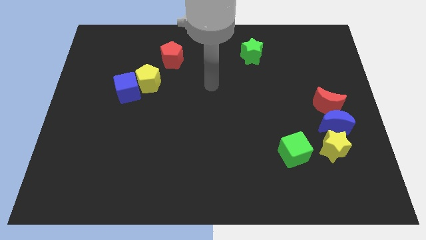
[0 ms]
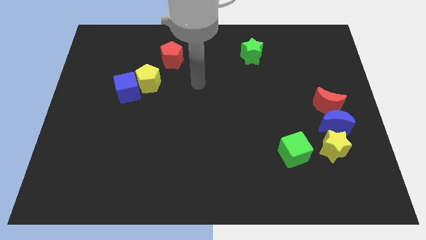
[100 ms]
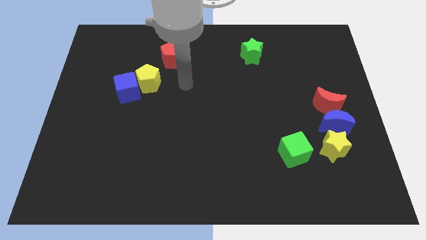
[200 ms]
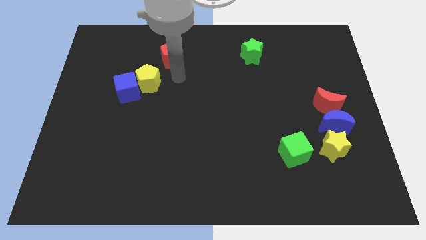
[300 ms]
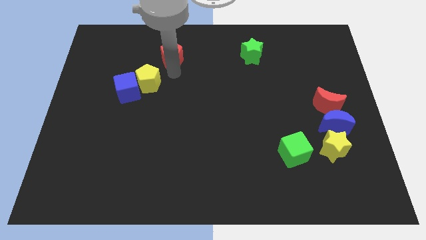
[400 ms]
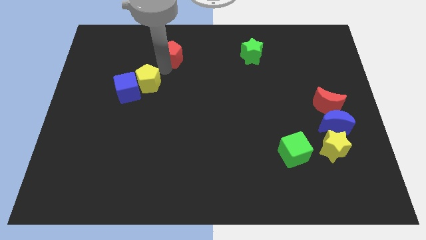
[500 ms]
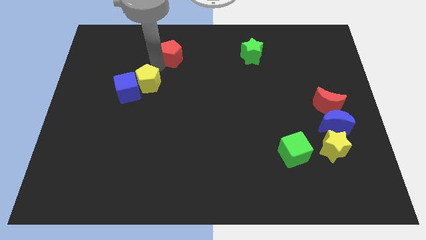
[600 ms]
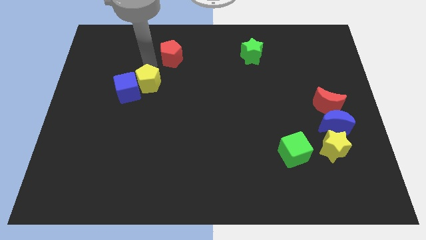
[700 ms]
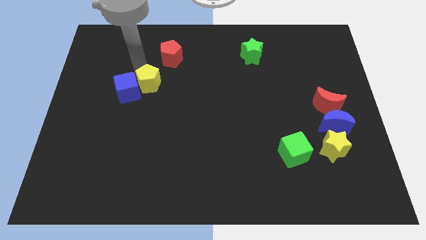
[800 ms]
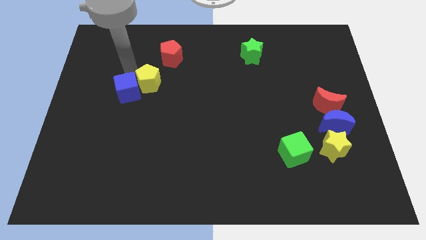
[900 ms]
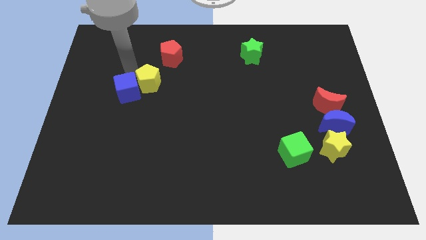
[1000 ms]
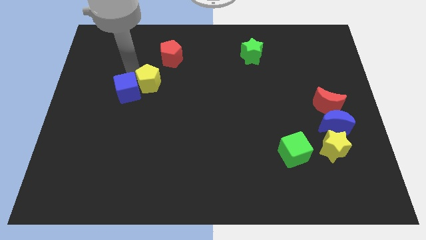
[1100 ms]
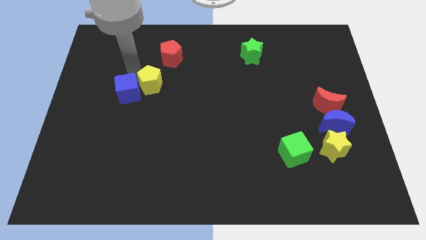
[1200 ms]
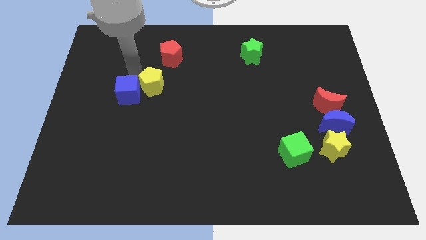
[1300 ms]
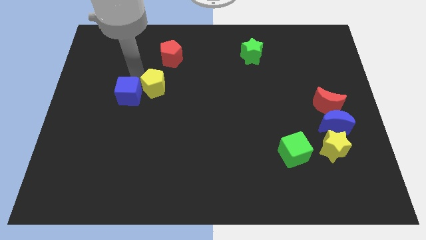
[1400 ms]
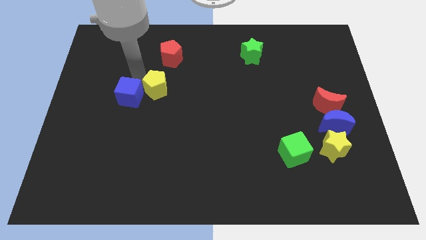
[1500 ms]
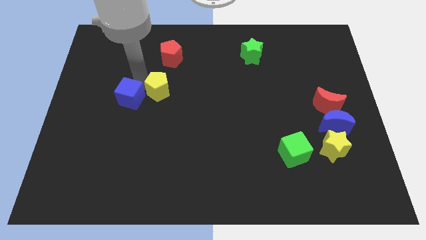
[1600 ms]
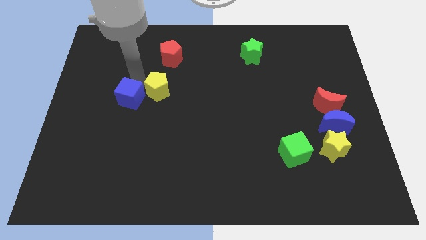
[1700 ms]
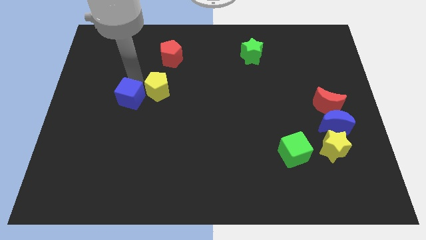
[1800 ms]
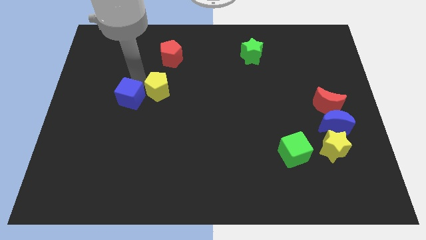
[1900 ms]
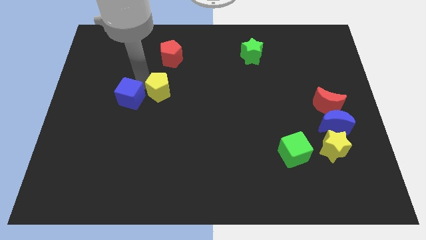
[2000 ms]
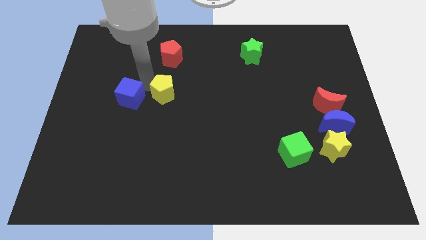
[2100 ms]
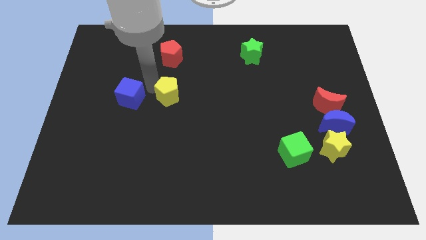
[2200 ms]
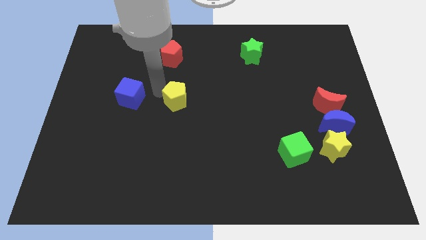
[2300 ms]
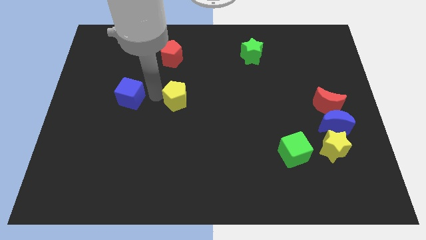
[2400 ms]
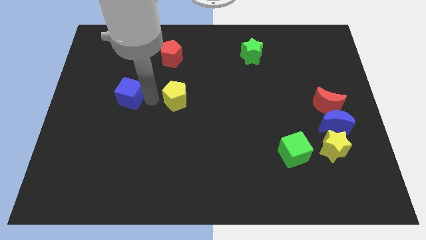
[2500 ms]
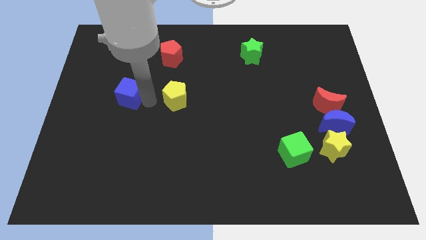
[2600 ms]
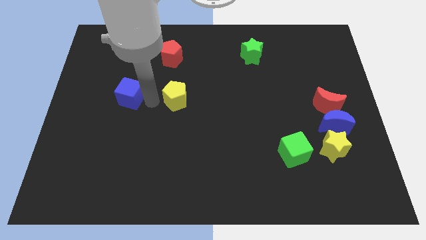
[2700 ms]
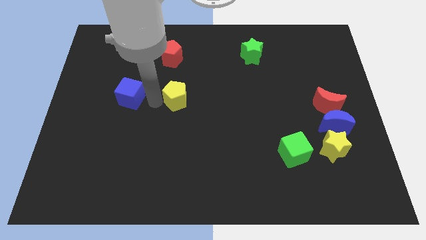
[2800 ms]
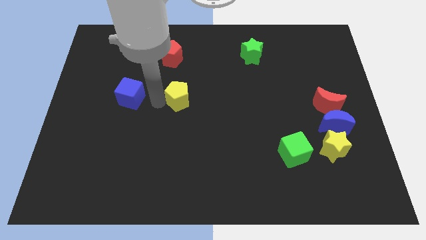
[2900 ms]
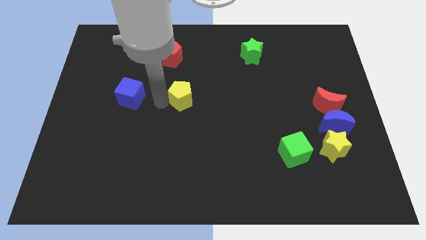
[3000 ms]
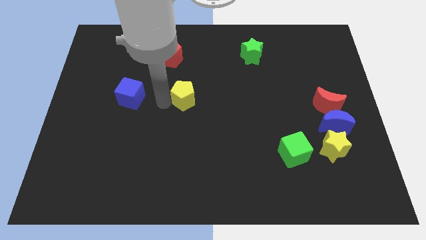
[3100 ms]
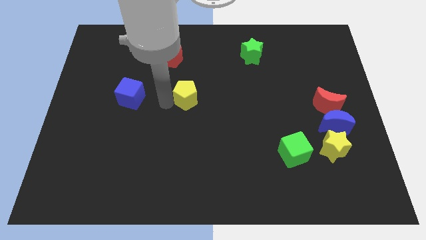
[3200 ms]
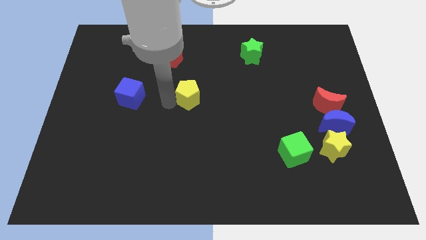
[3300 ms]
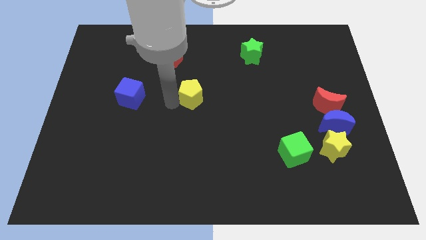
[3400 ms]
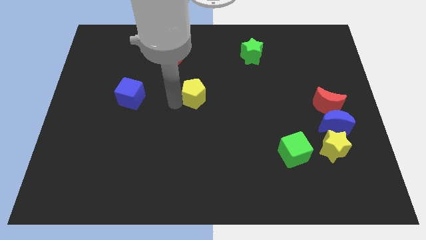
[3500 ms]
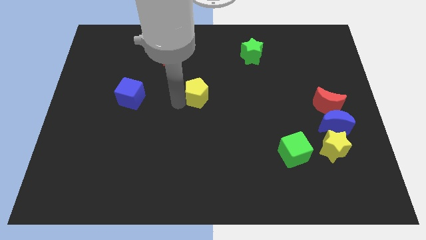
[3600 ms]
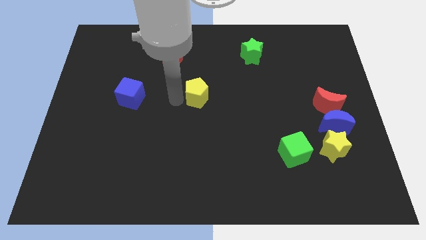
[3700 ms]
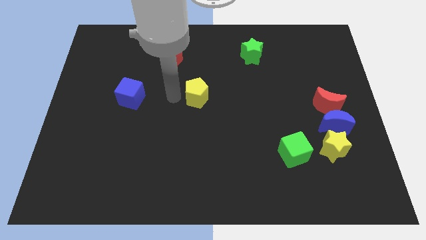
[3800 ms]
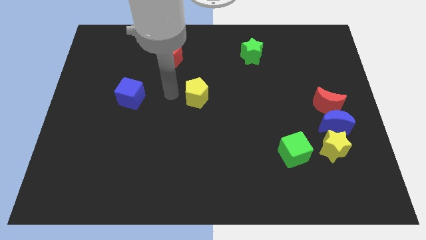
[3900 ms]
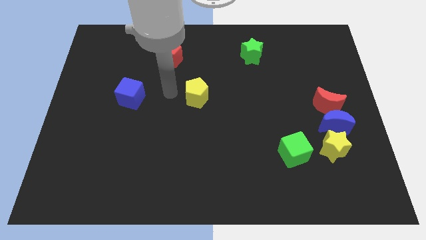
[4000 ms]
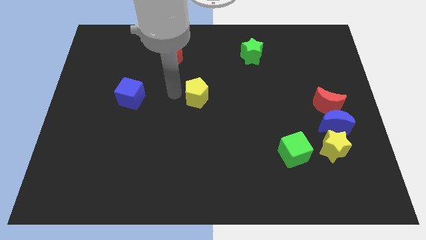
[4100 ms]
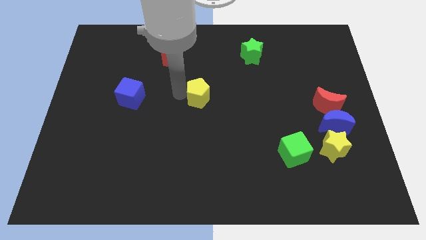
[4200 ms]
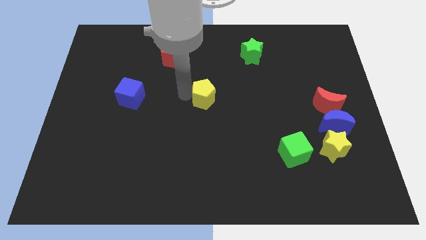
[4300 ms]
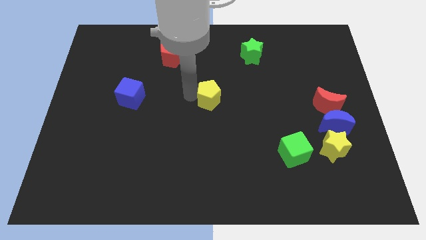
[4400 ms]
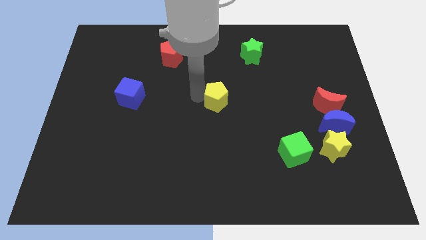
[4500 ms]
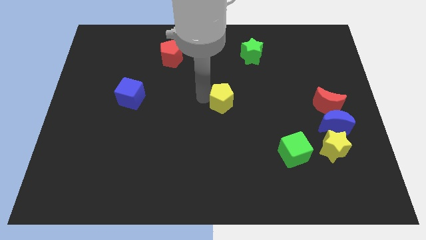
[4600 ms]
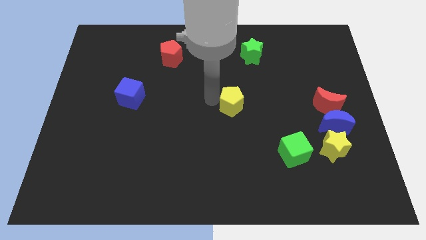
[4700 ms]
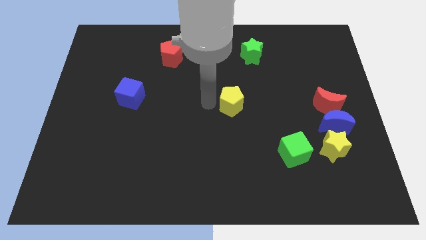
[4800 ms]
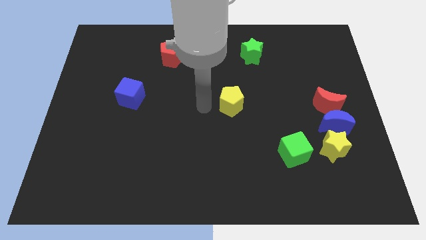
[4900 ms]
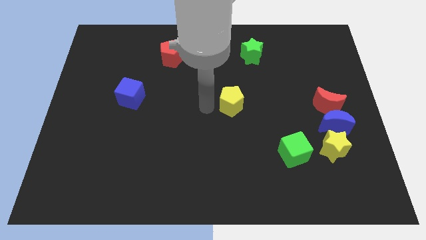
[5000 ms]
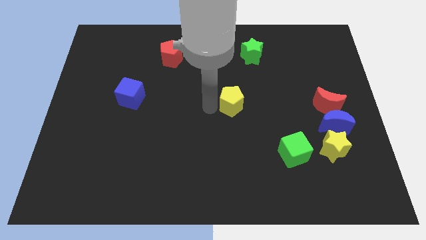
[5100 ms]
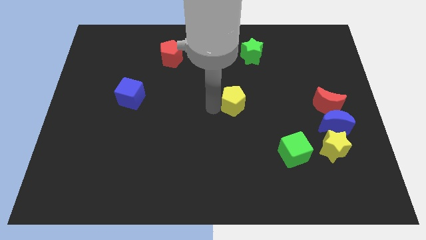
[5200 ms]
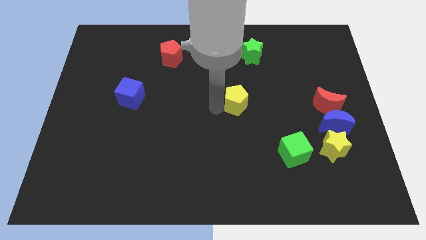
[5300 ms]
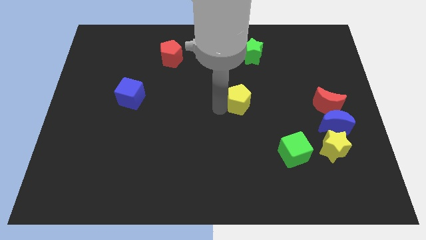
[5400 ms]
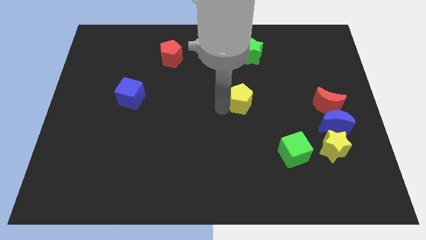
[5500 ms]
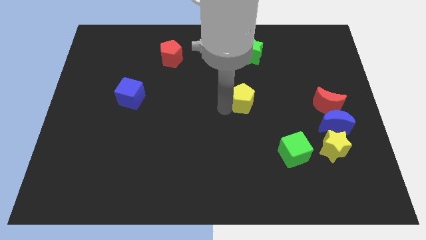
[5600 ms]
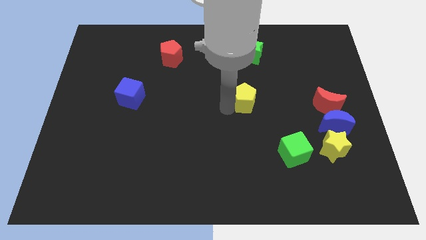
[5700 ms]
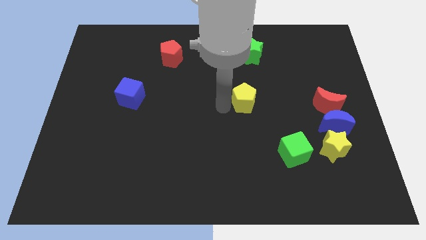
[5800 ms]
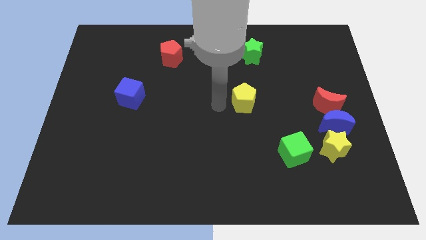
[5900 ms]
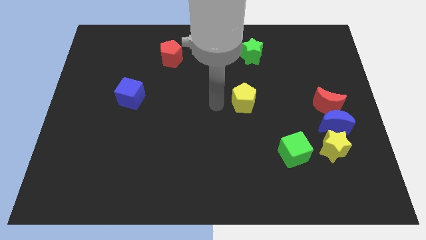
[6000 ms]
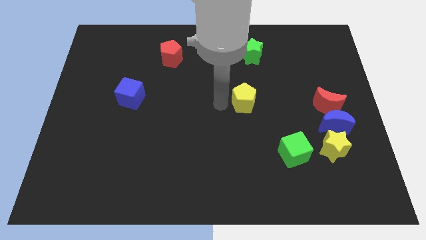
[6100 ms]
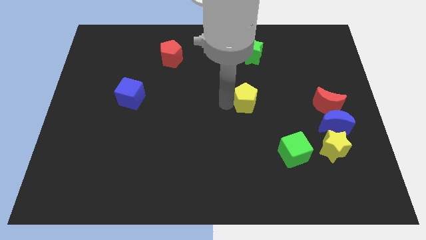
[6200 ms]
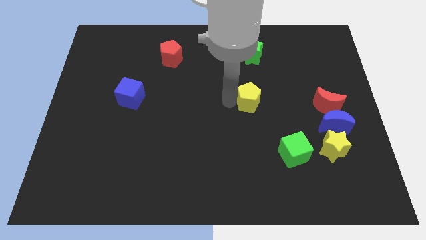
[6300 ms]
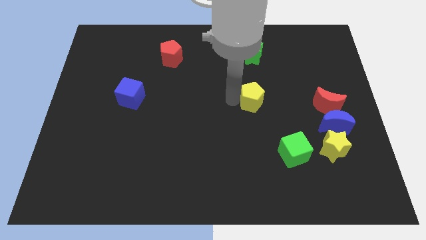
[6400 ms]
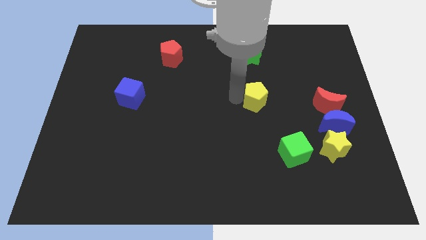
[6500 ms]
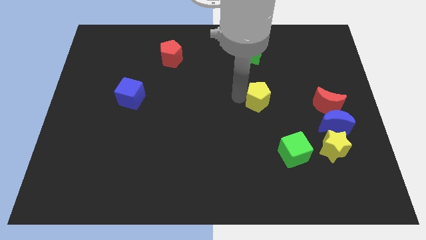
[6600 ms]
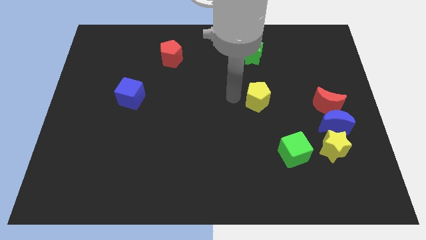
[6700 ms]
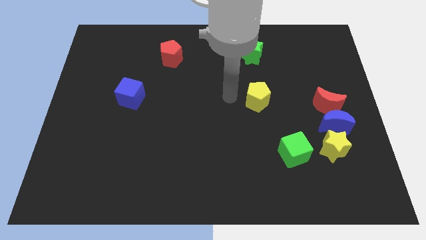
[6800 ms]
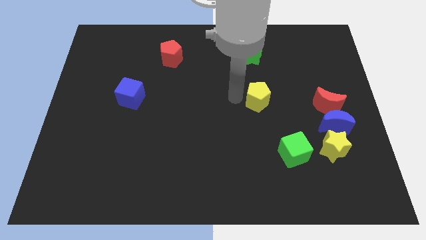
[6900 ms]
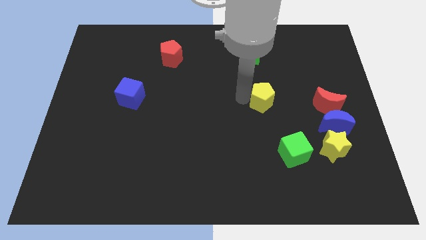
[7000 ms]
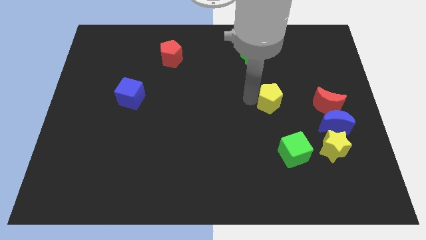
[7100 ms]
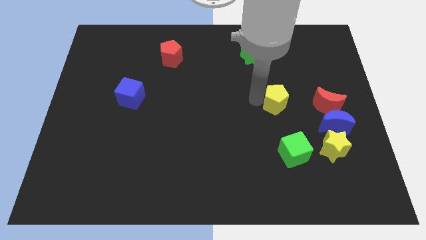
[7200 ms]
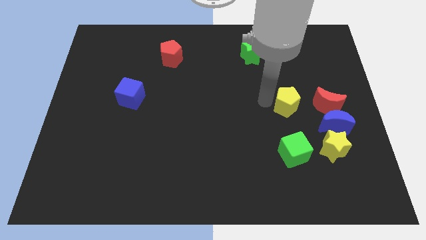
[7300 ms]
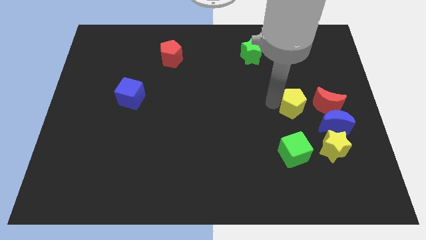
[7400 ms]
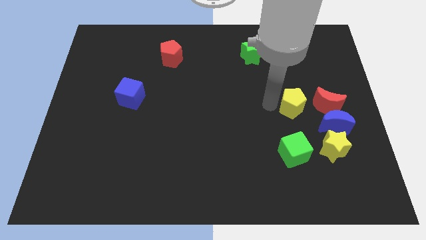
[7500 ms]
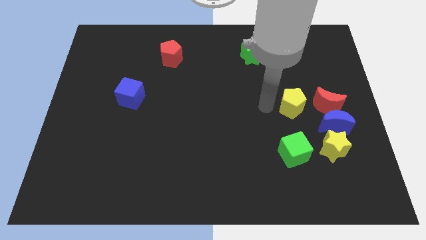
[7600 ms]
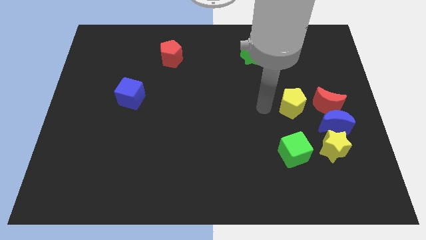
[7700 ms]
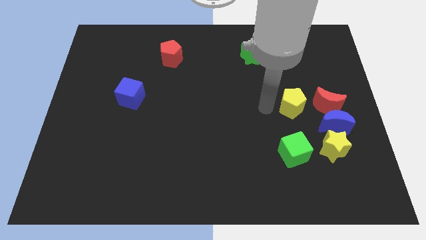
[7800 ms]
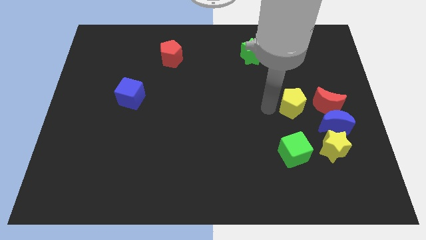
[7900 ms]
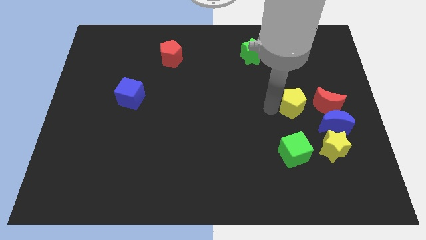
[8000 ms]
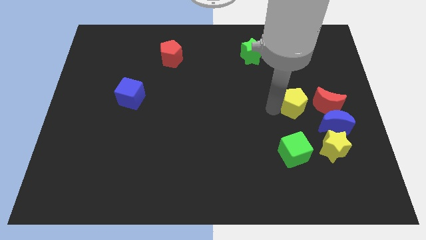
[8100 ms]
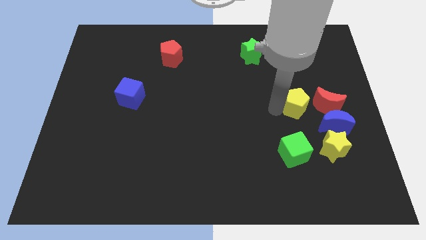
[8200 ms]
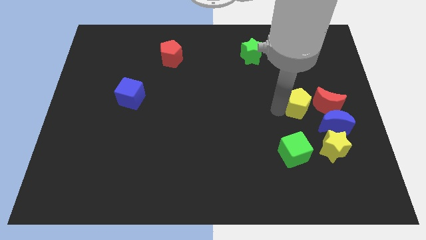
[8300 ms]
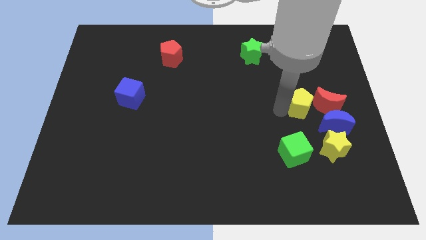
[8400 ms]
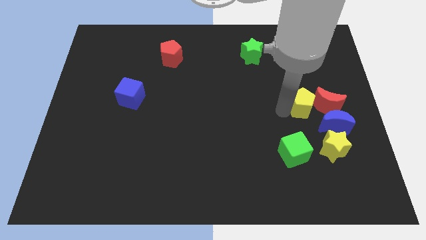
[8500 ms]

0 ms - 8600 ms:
slide the yellow pentagon to the red moon
